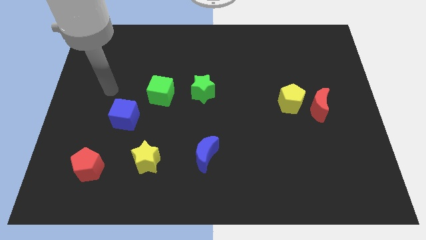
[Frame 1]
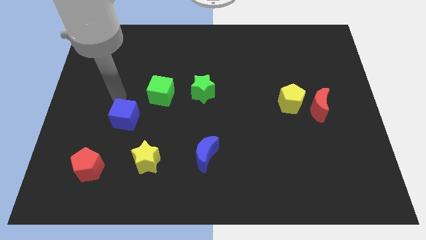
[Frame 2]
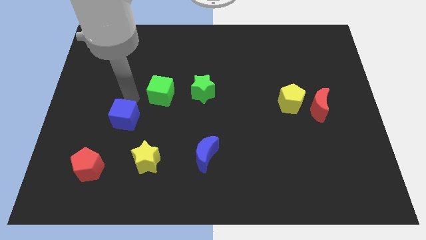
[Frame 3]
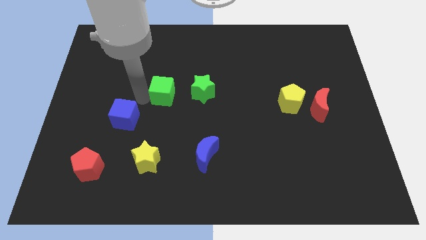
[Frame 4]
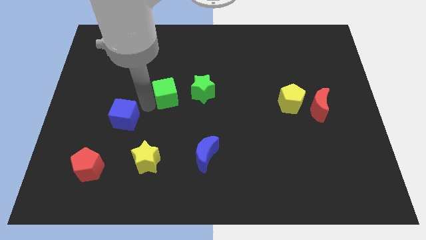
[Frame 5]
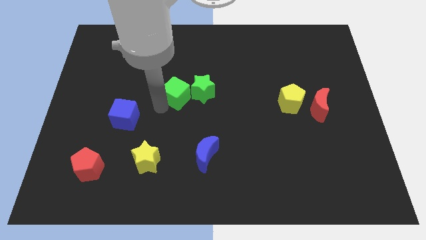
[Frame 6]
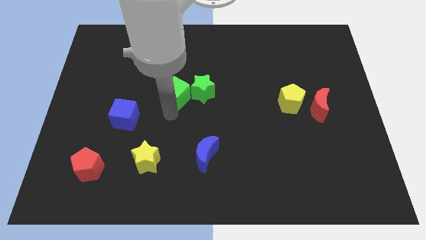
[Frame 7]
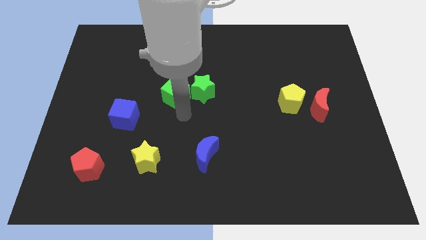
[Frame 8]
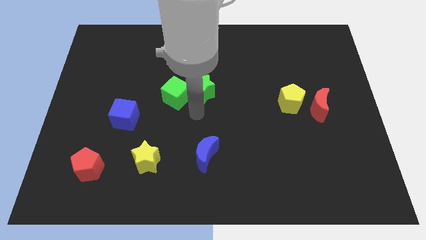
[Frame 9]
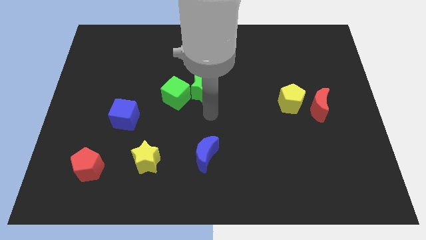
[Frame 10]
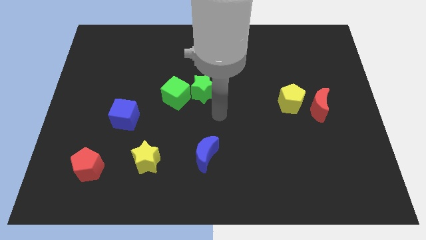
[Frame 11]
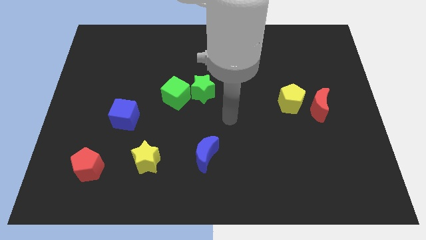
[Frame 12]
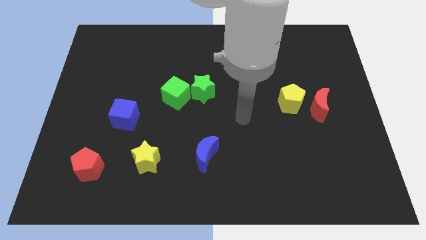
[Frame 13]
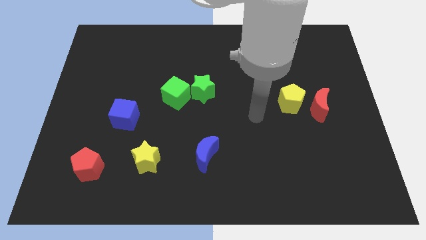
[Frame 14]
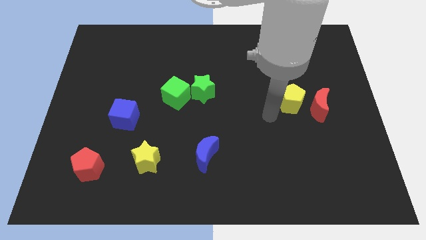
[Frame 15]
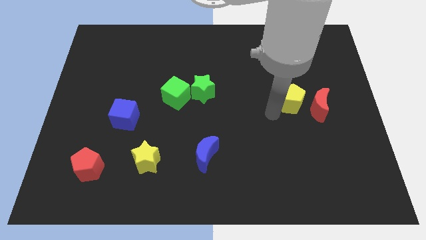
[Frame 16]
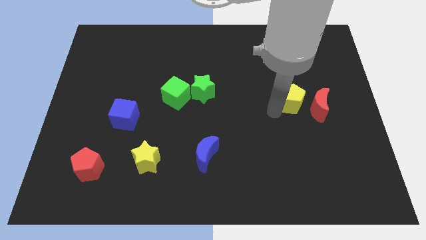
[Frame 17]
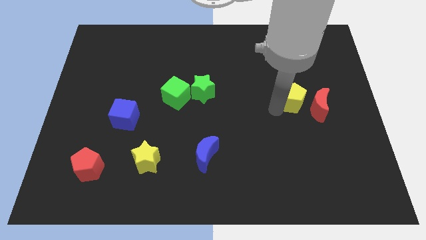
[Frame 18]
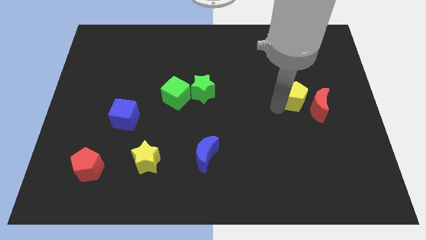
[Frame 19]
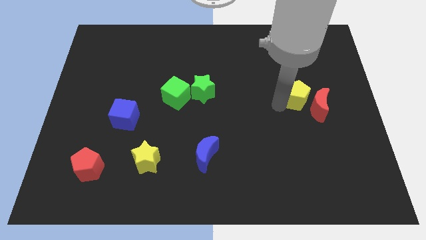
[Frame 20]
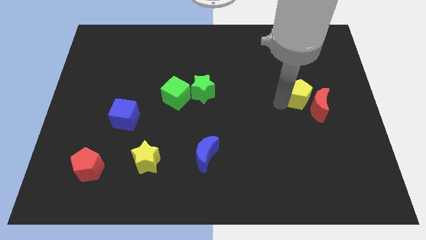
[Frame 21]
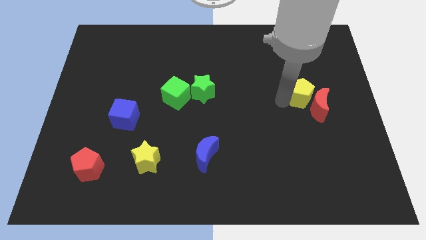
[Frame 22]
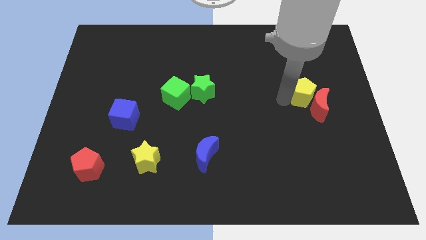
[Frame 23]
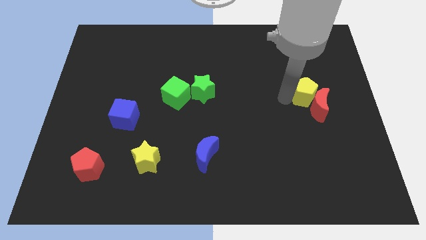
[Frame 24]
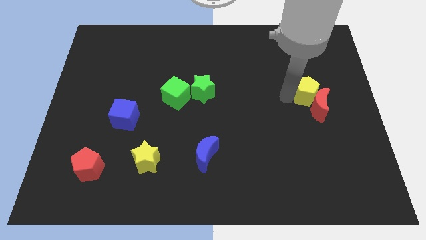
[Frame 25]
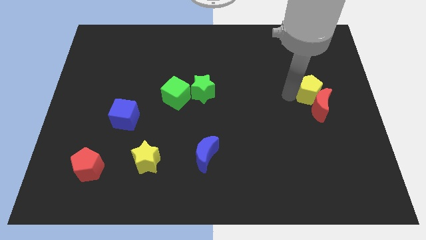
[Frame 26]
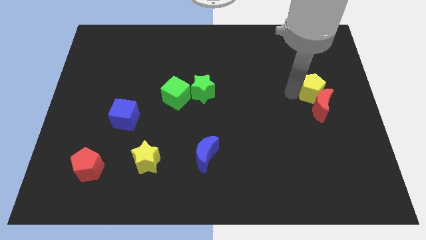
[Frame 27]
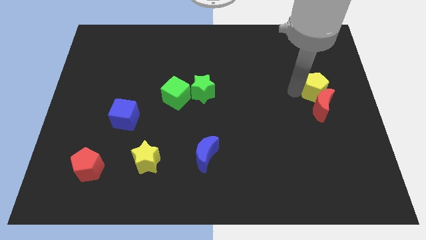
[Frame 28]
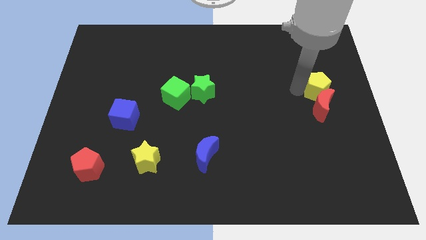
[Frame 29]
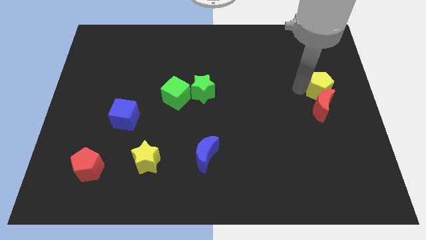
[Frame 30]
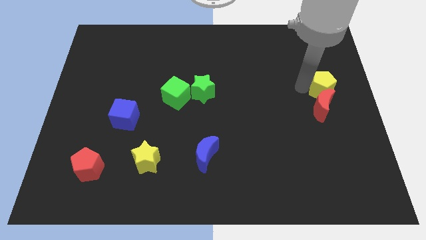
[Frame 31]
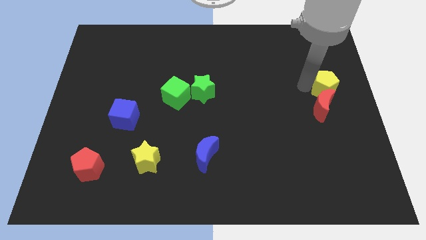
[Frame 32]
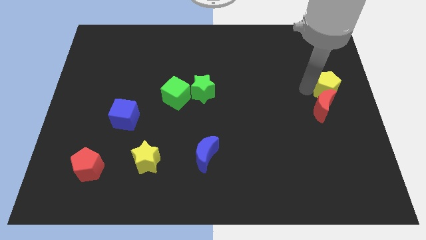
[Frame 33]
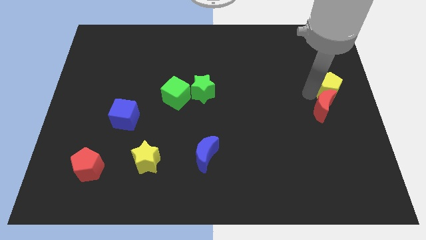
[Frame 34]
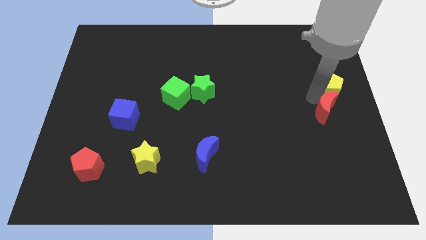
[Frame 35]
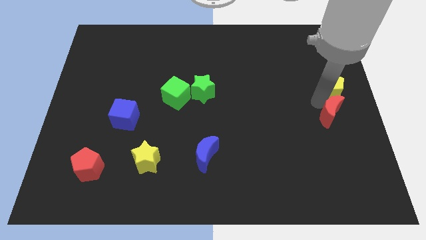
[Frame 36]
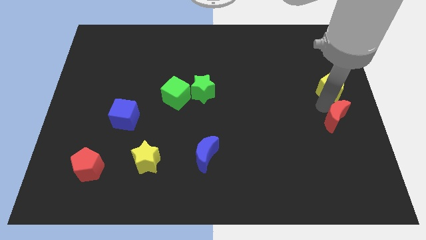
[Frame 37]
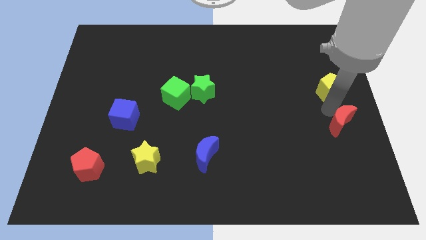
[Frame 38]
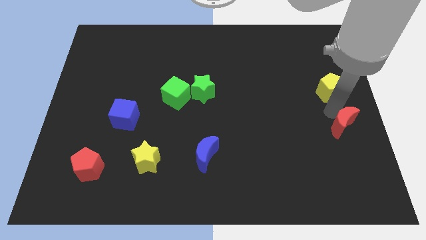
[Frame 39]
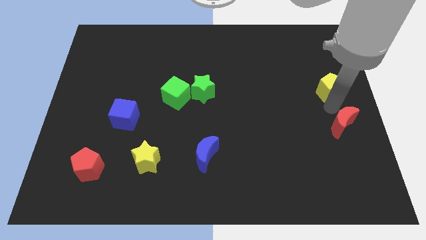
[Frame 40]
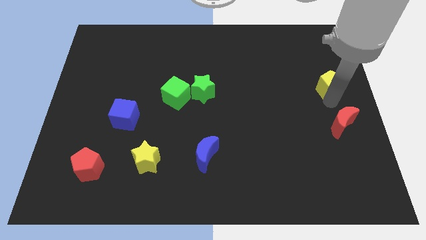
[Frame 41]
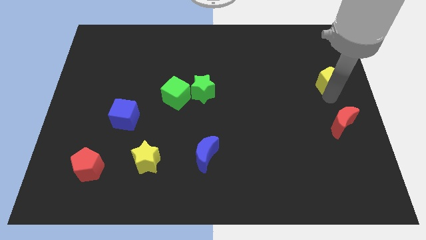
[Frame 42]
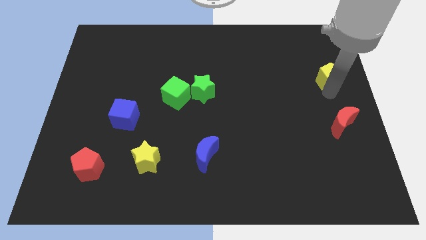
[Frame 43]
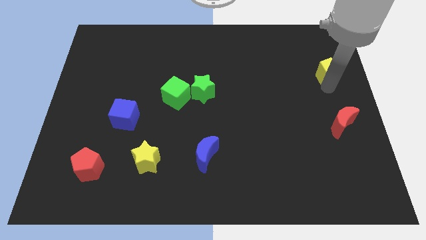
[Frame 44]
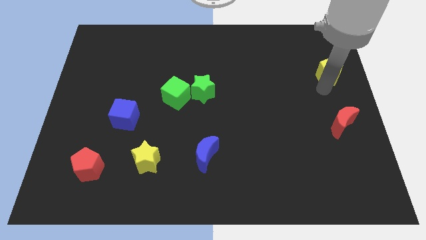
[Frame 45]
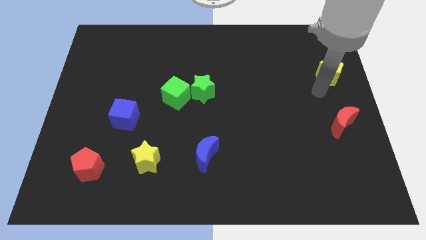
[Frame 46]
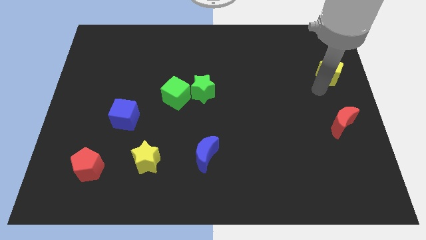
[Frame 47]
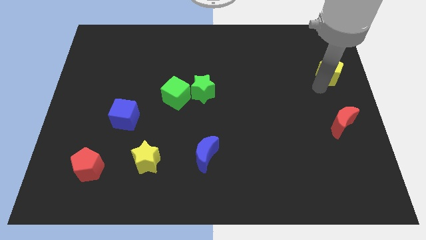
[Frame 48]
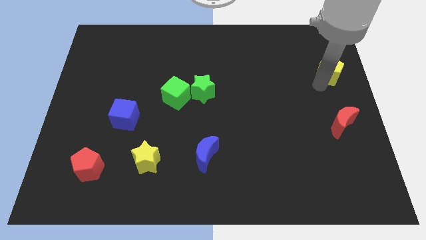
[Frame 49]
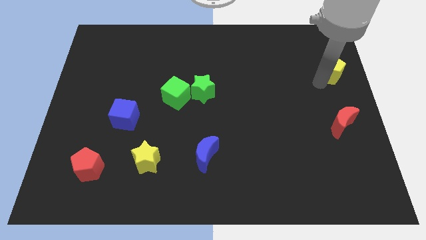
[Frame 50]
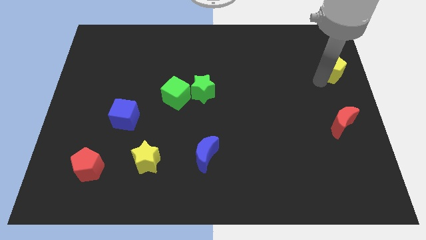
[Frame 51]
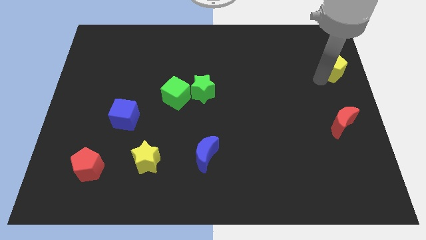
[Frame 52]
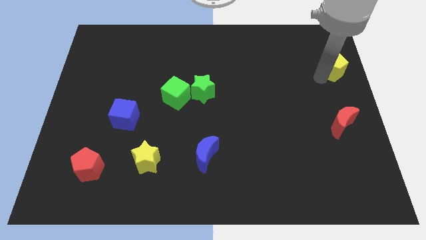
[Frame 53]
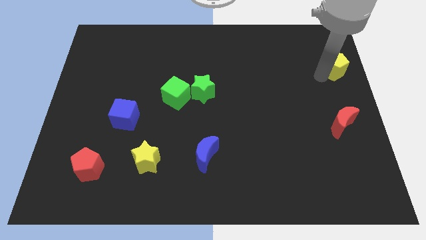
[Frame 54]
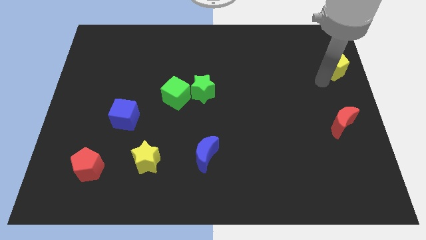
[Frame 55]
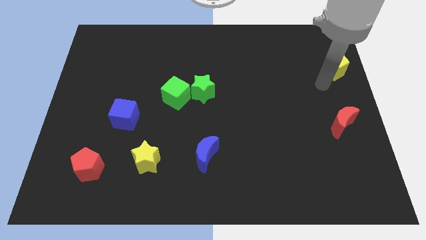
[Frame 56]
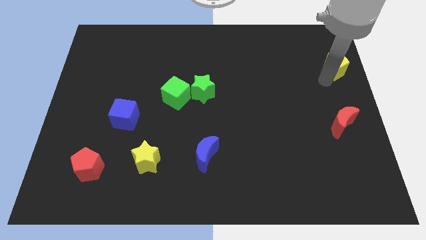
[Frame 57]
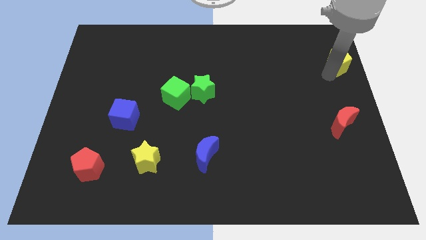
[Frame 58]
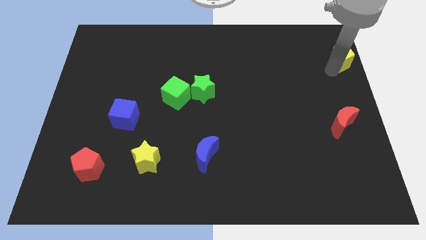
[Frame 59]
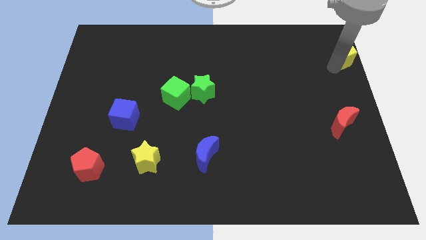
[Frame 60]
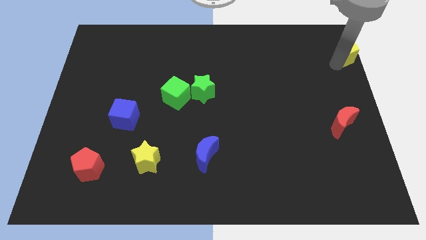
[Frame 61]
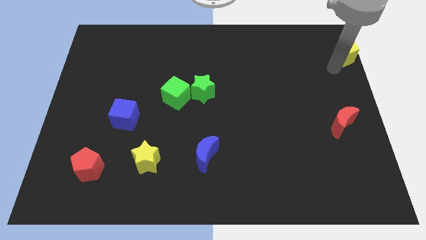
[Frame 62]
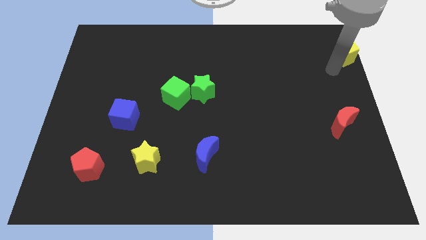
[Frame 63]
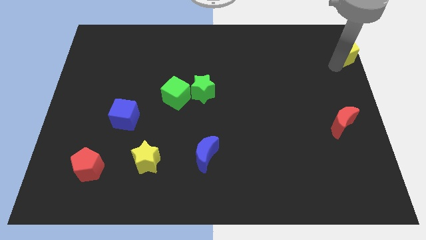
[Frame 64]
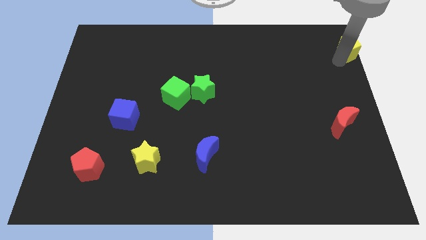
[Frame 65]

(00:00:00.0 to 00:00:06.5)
push the yellow pentagon to the top right corner

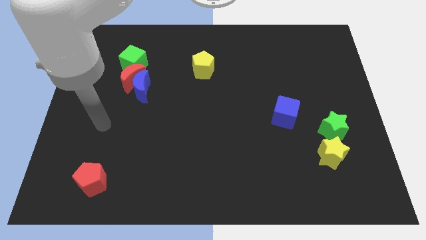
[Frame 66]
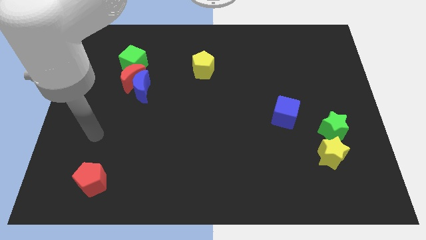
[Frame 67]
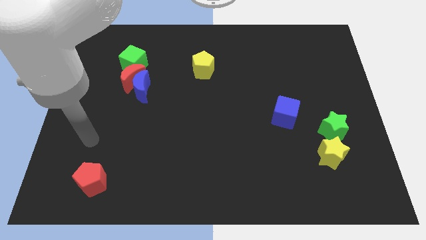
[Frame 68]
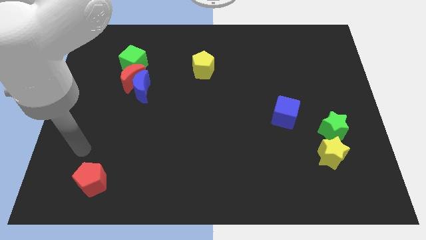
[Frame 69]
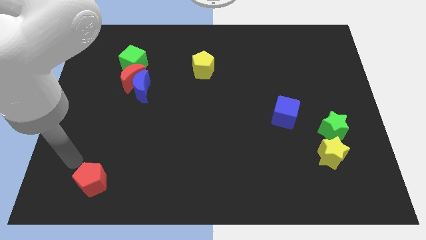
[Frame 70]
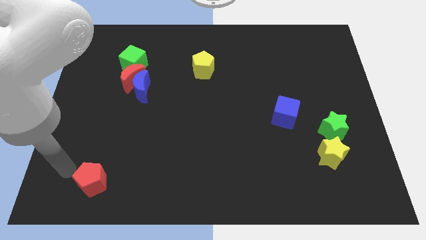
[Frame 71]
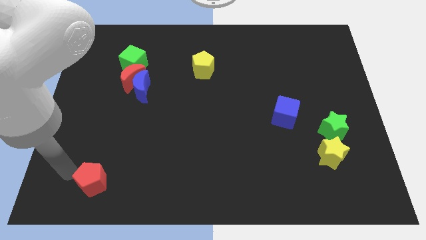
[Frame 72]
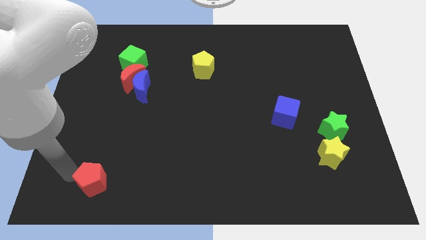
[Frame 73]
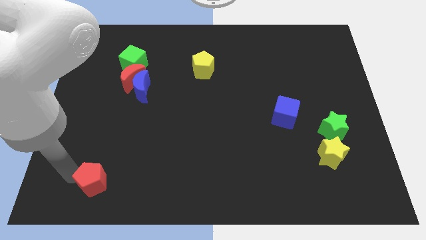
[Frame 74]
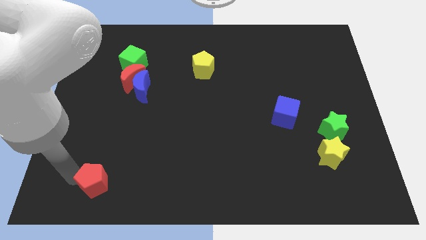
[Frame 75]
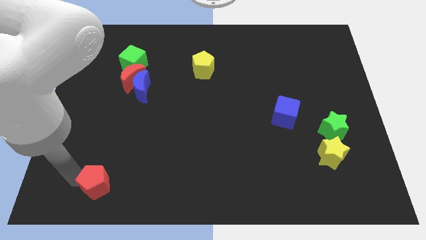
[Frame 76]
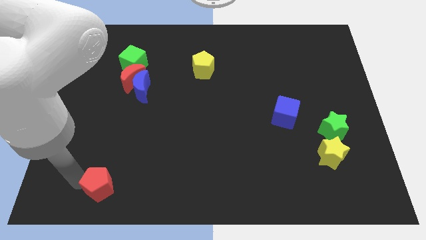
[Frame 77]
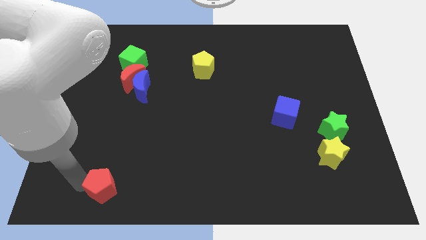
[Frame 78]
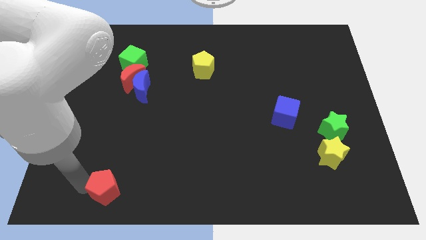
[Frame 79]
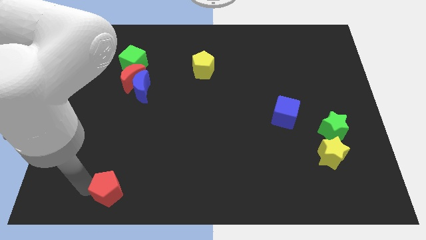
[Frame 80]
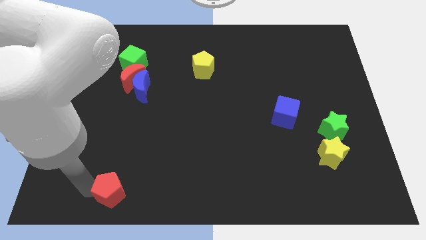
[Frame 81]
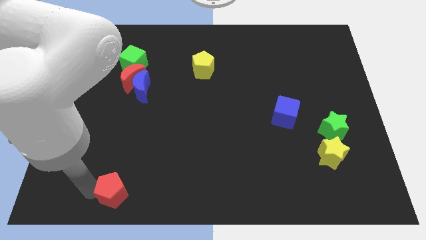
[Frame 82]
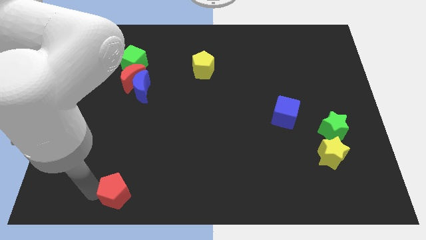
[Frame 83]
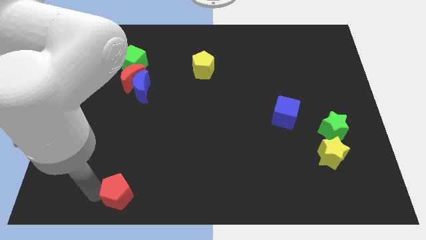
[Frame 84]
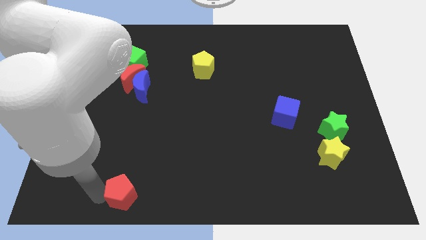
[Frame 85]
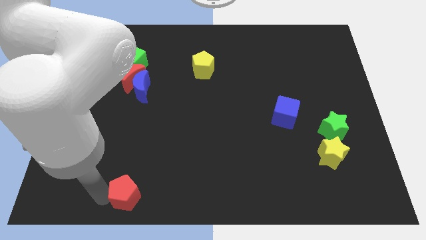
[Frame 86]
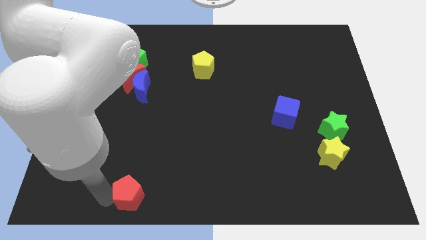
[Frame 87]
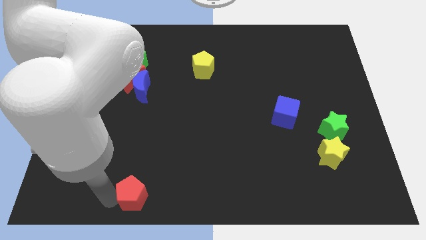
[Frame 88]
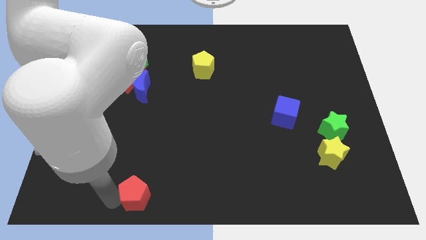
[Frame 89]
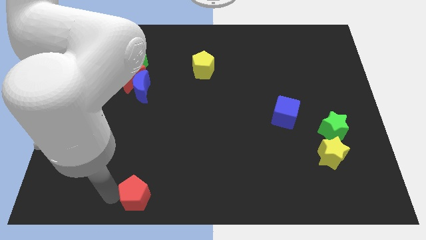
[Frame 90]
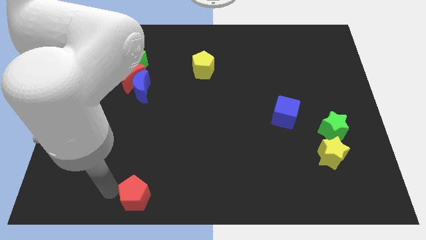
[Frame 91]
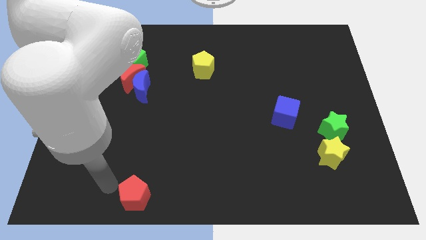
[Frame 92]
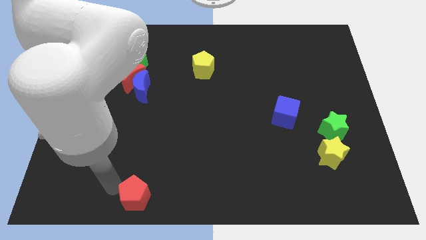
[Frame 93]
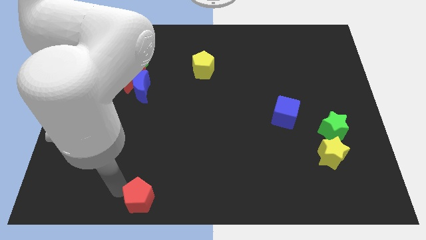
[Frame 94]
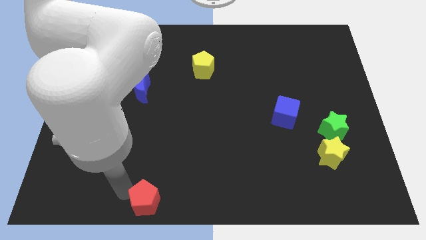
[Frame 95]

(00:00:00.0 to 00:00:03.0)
slide the red pentagon to the bottom side
